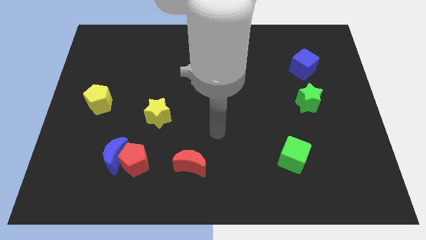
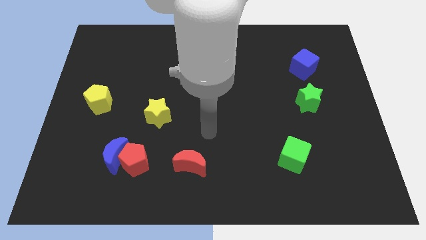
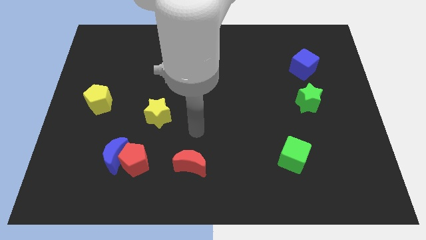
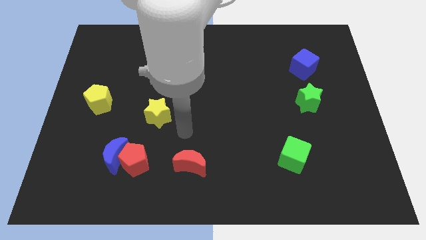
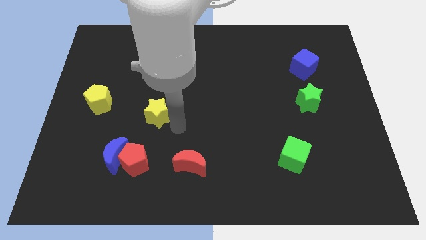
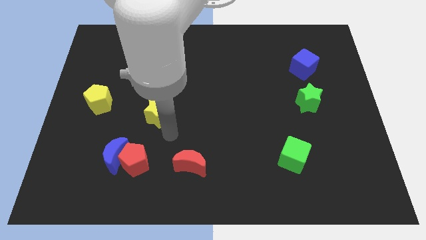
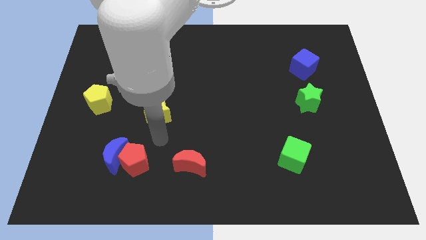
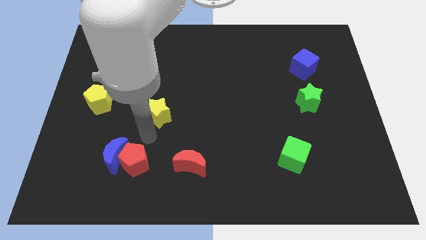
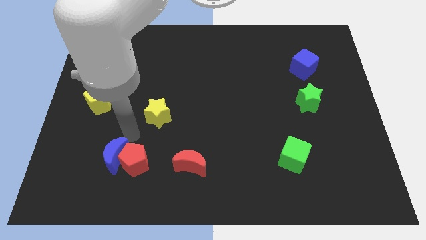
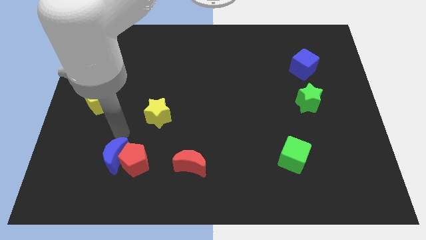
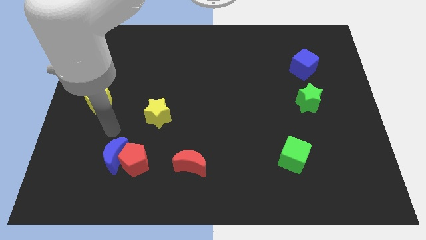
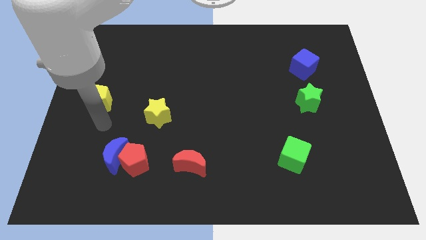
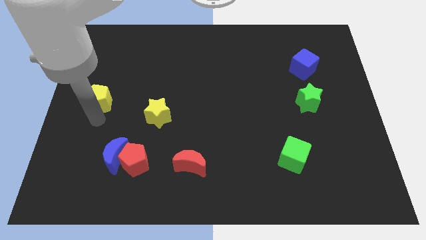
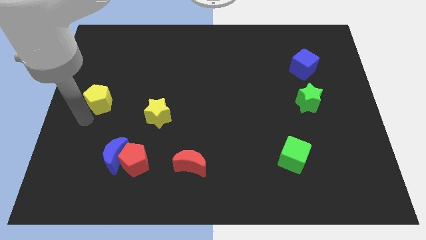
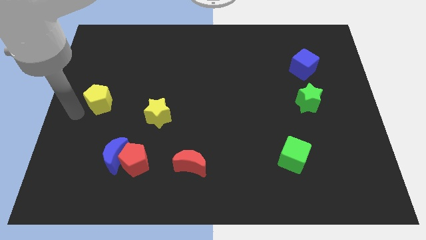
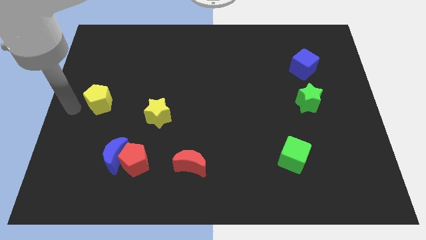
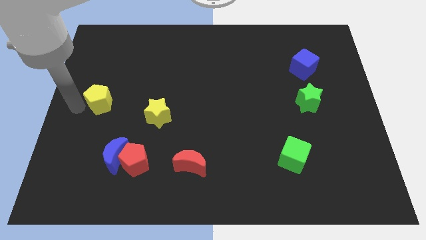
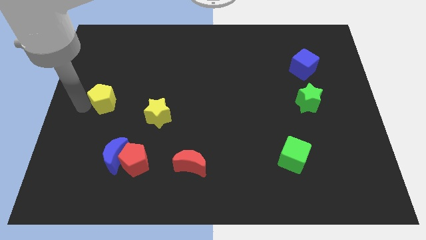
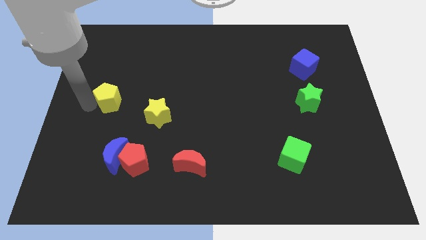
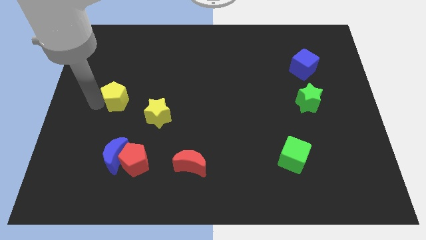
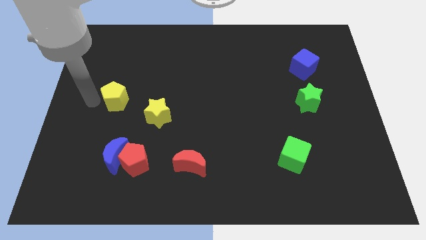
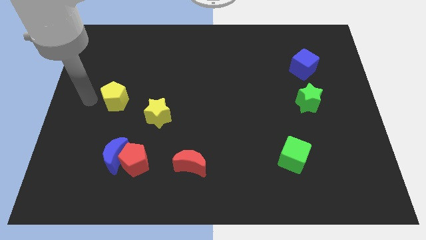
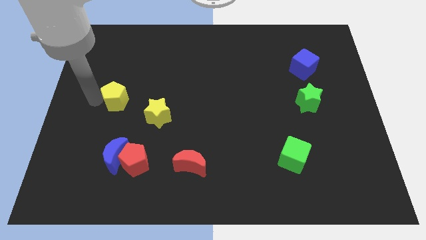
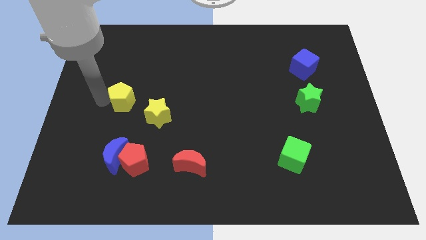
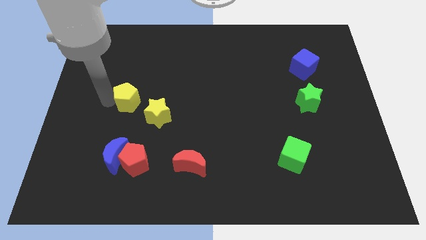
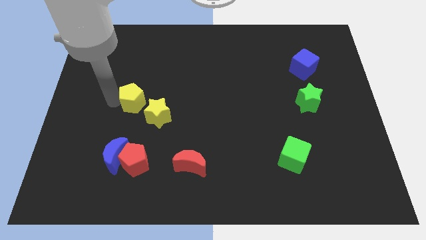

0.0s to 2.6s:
move the yellow pentagon to the right somewhat

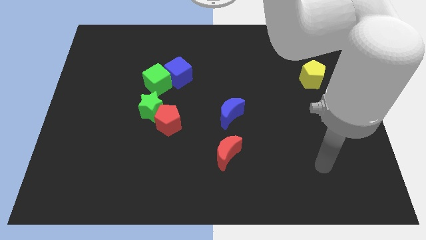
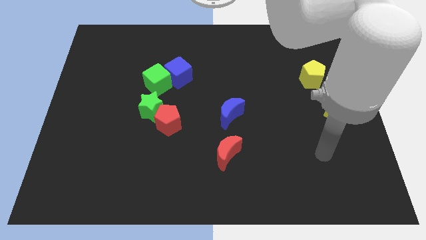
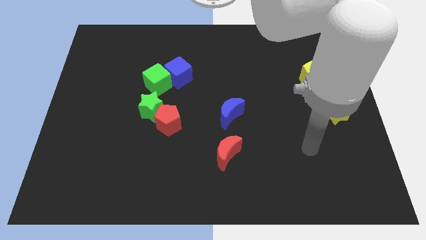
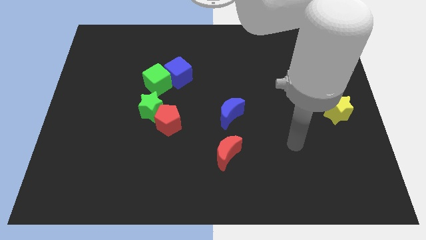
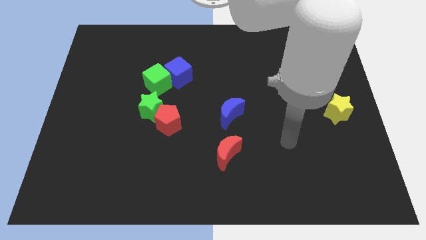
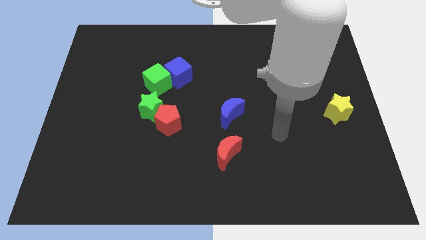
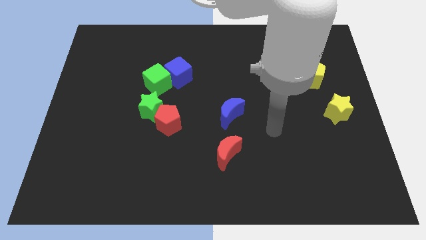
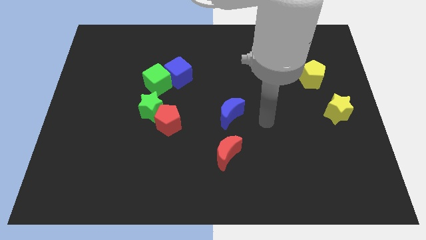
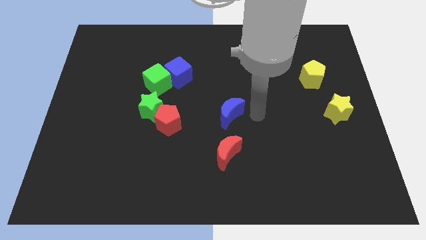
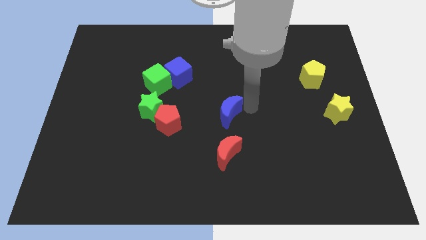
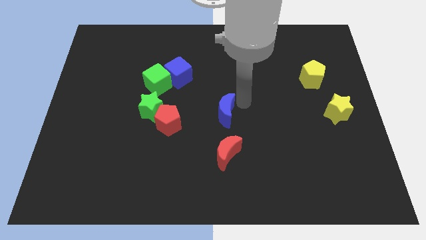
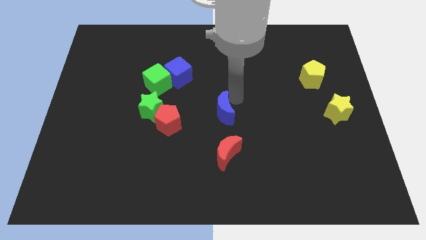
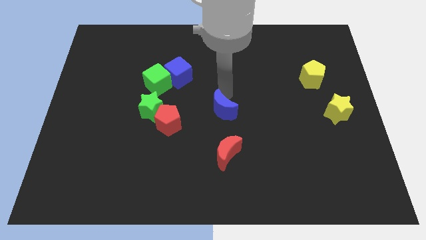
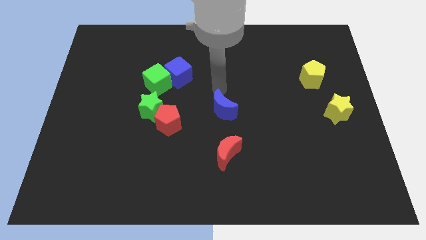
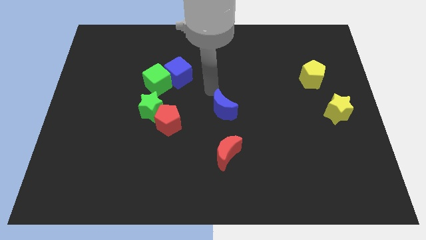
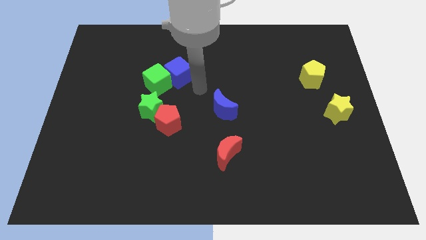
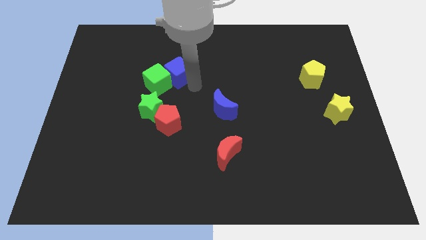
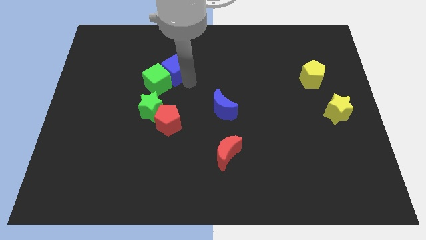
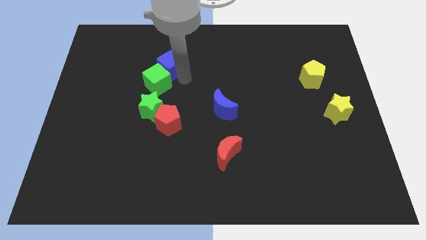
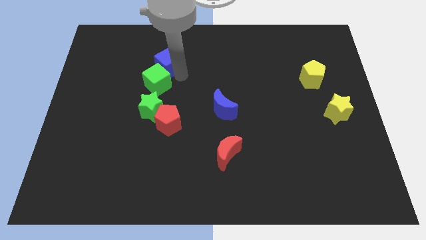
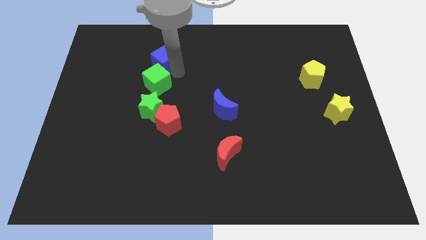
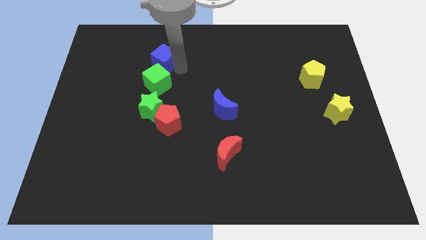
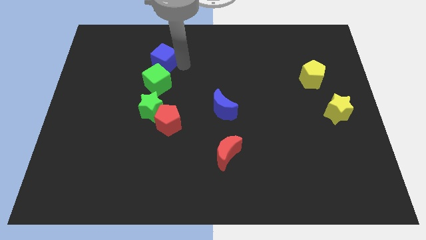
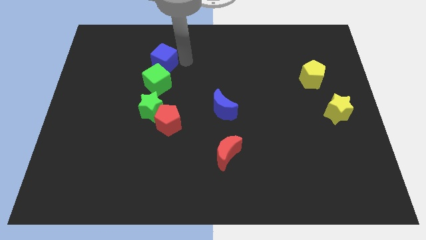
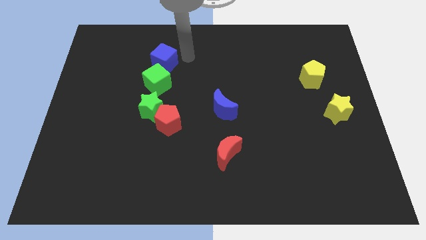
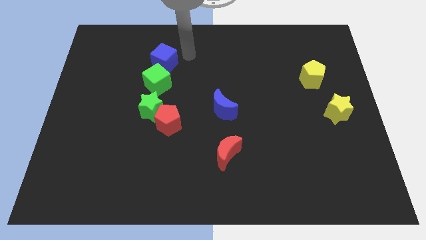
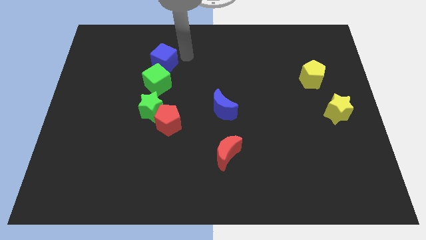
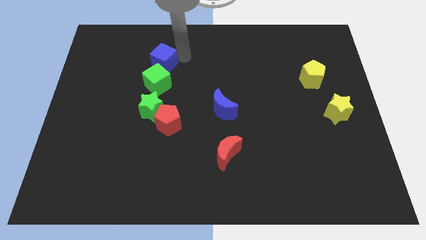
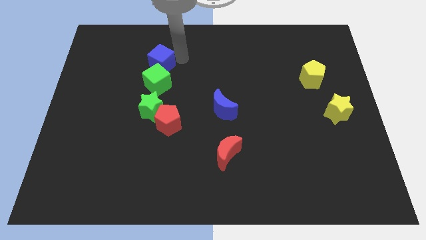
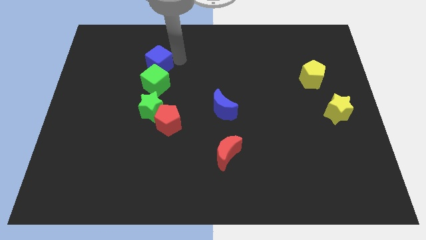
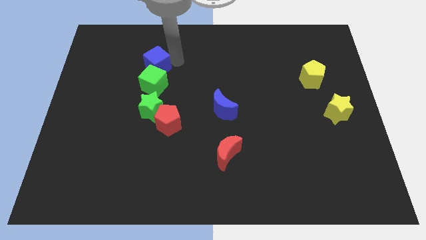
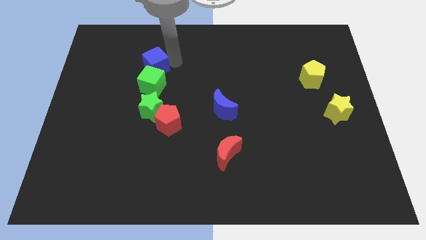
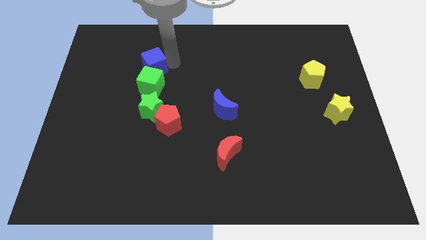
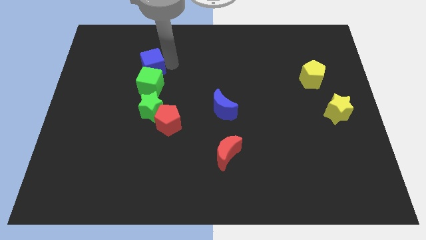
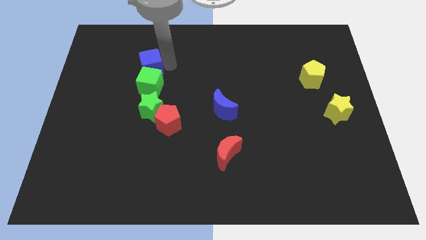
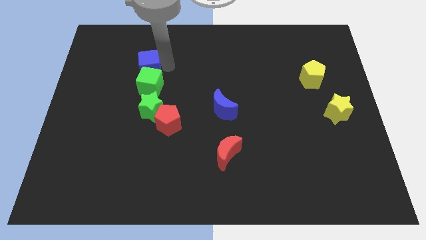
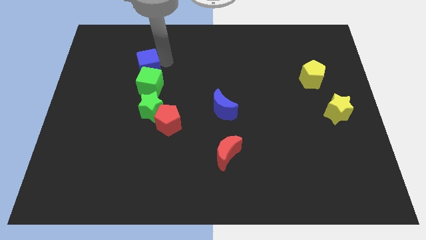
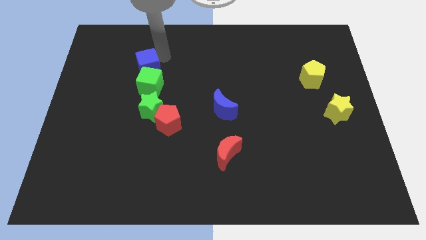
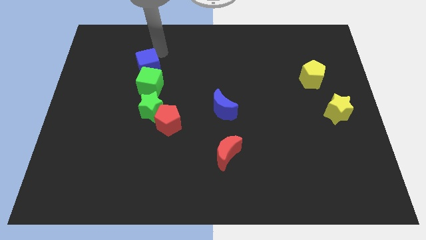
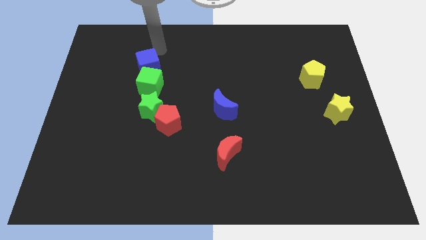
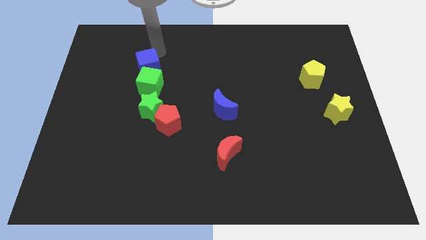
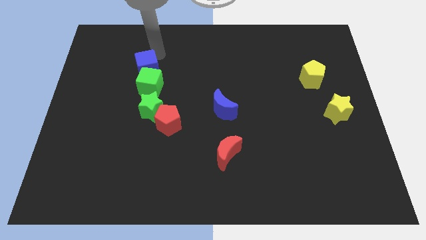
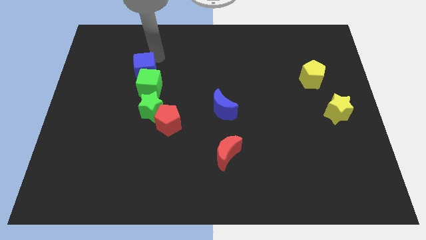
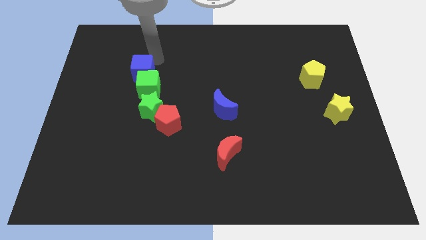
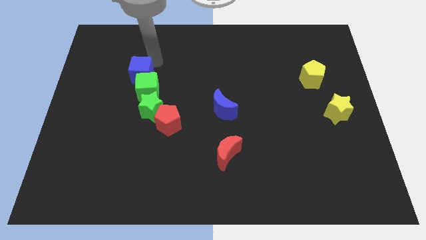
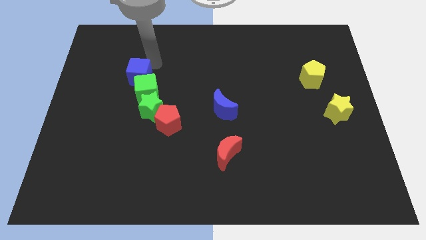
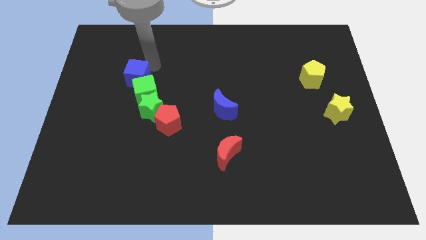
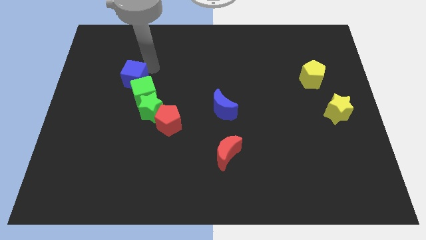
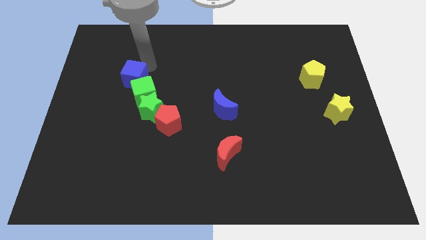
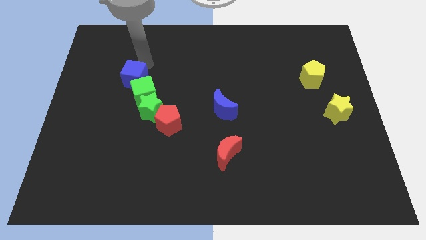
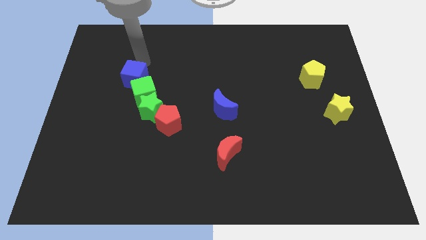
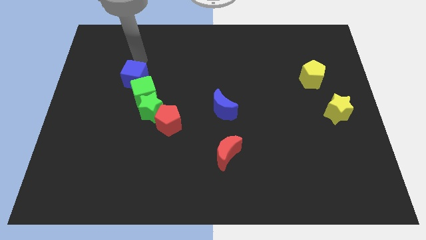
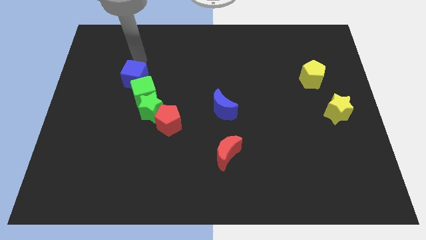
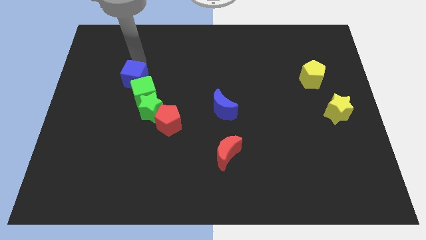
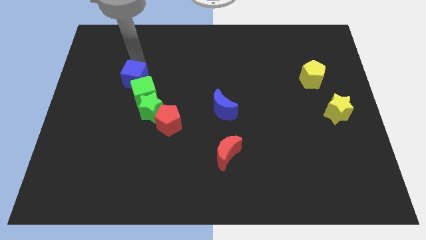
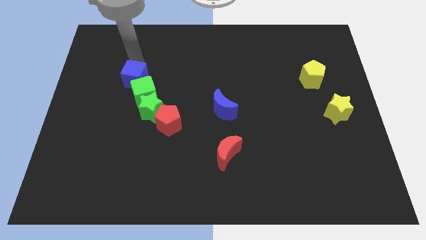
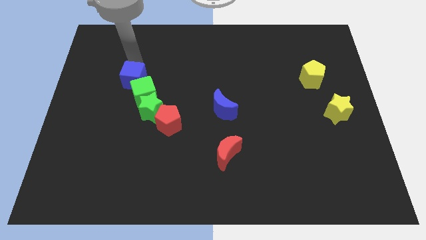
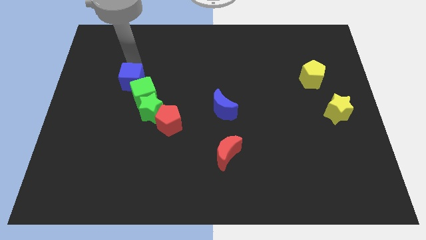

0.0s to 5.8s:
slide the blue cube a bit down and left diagonally
